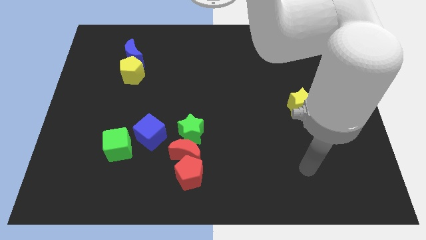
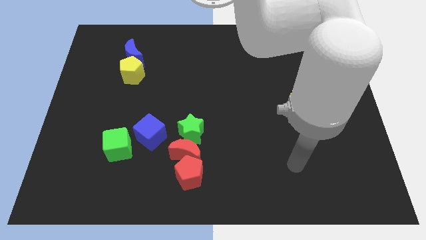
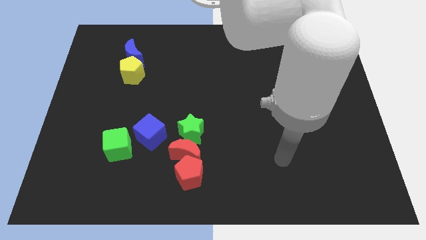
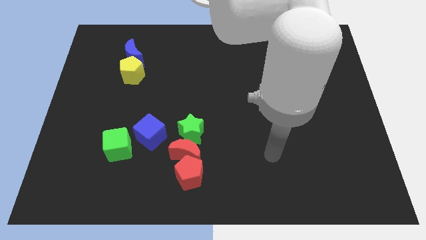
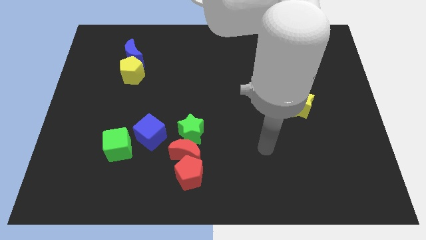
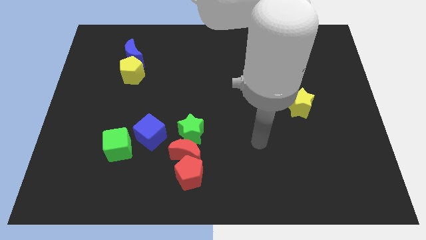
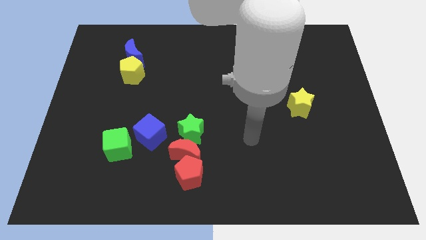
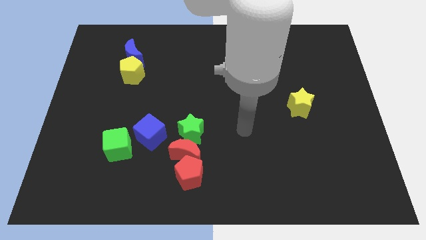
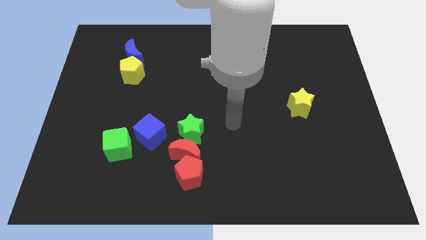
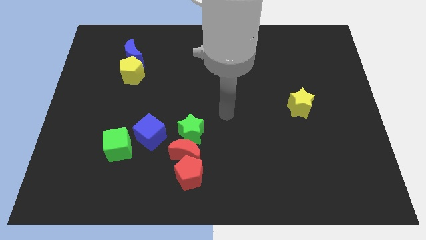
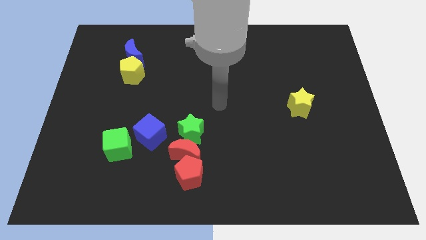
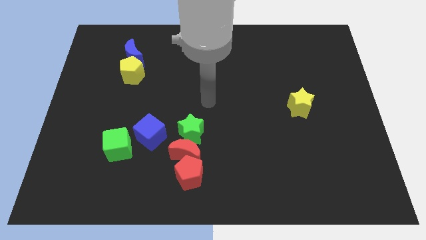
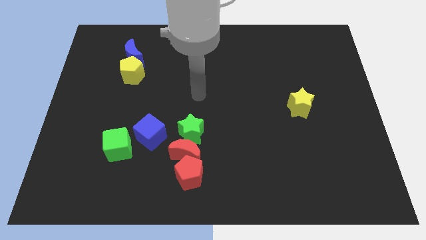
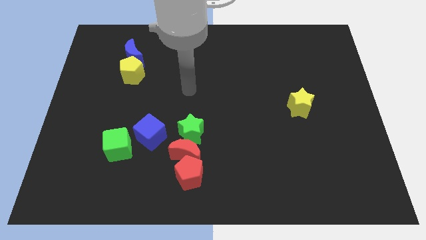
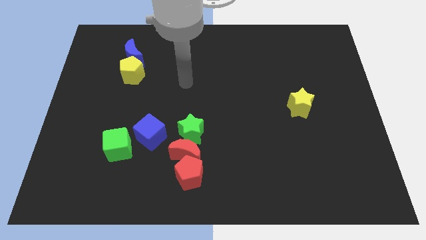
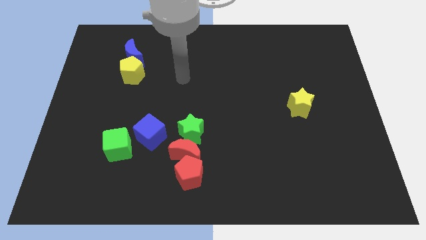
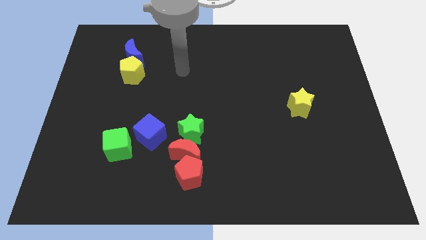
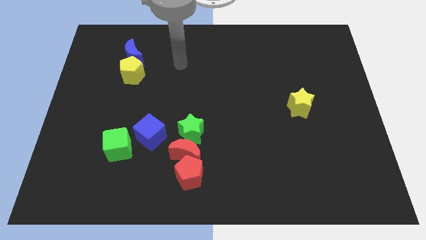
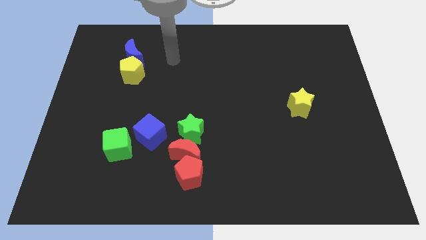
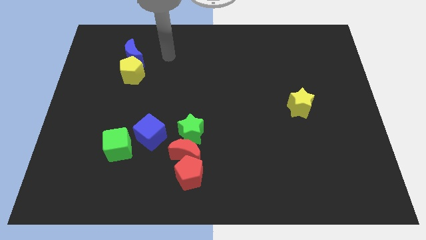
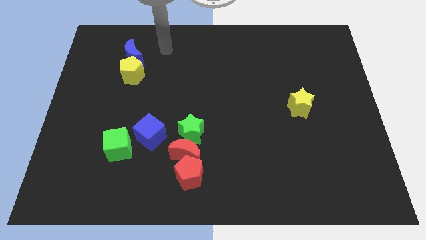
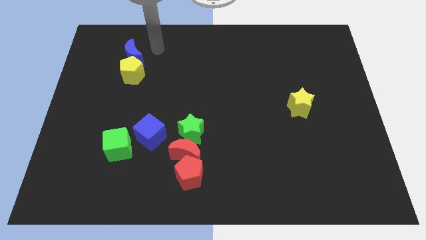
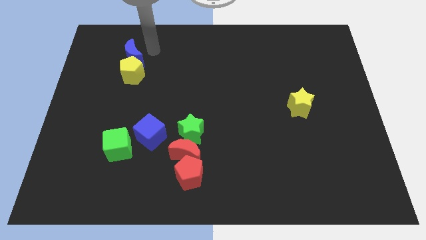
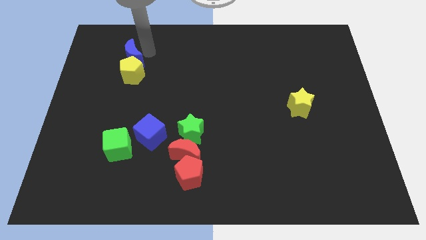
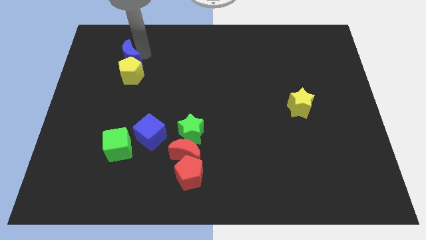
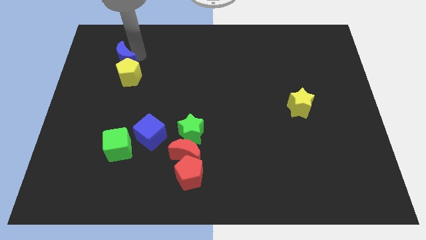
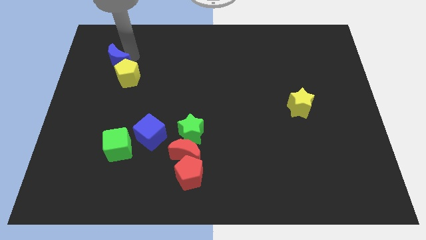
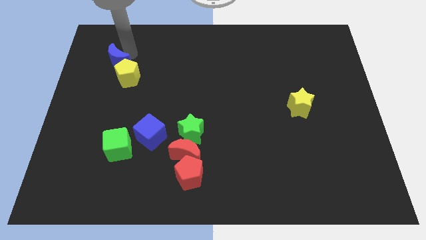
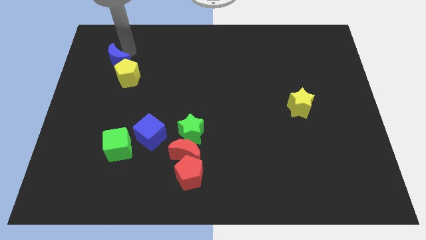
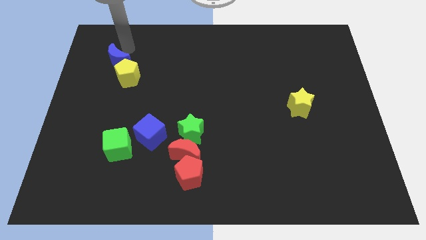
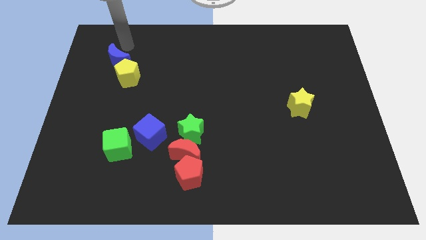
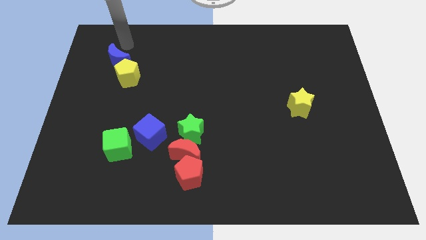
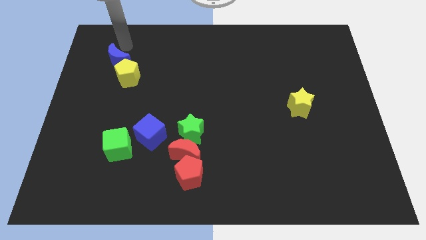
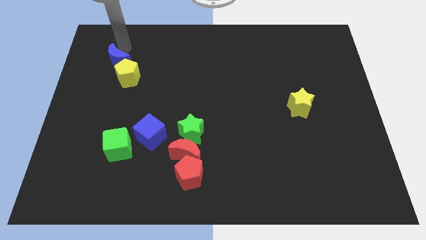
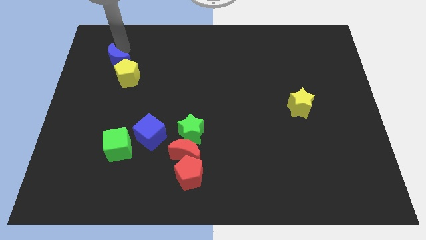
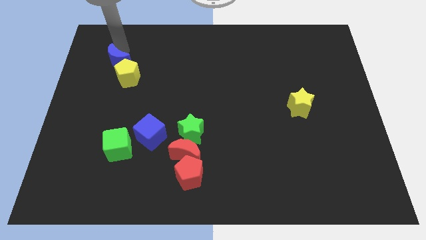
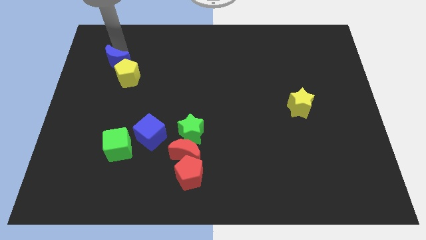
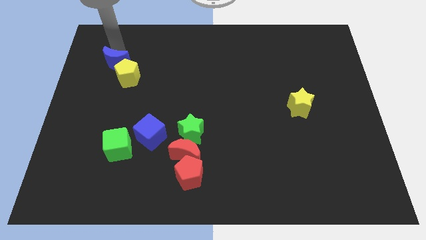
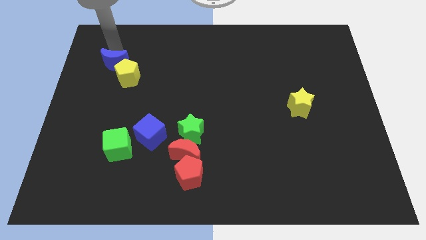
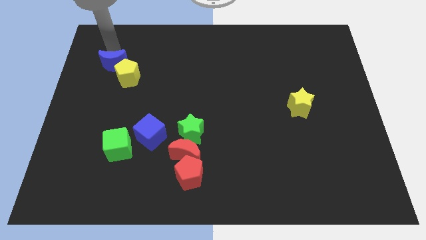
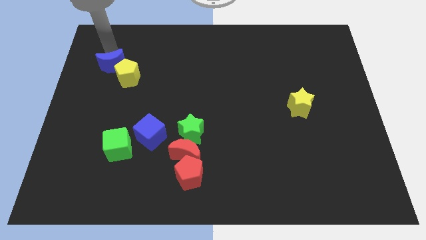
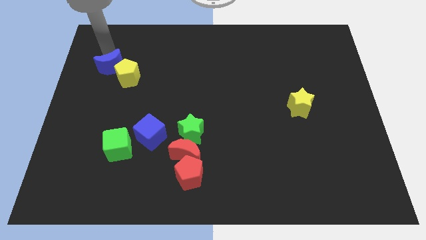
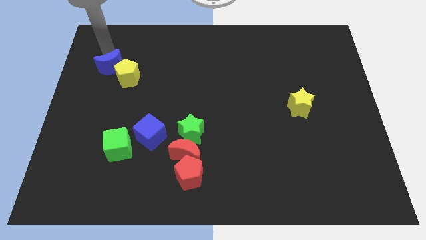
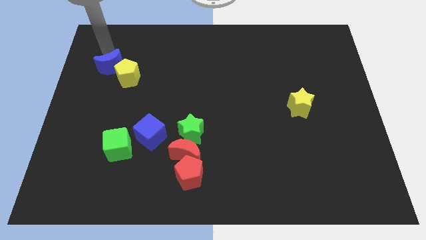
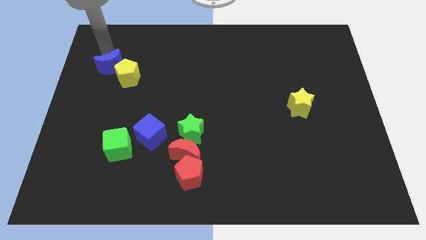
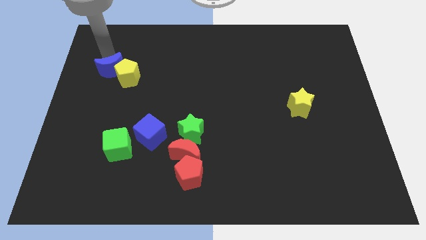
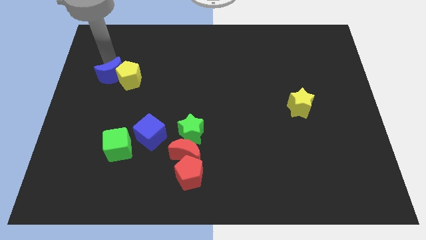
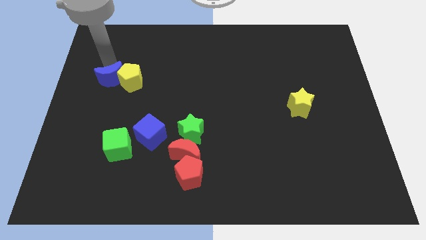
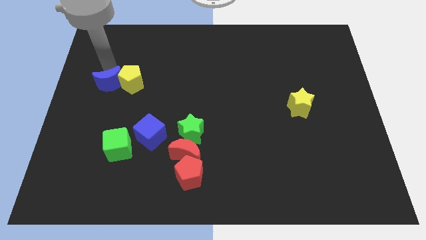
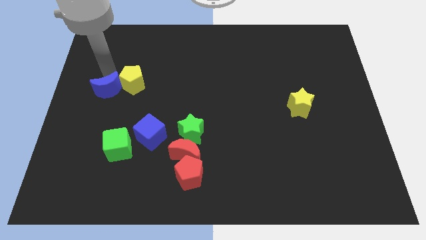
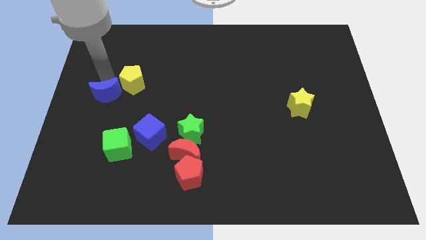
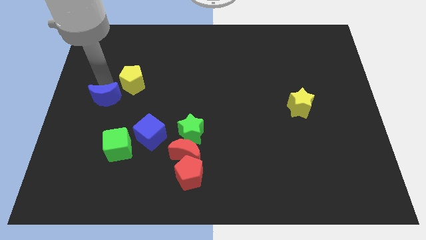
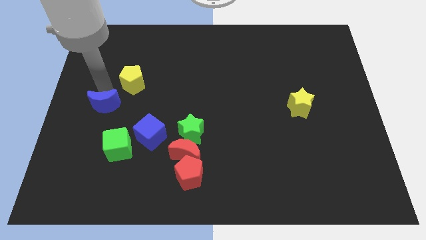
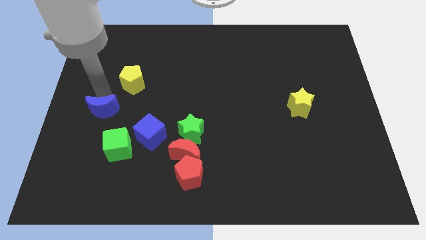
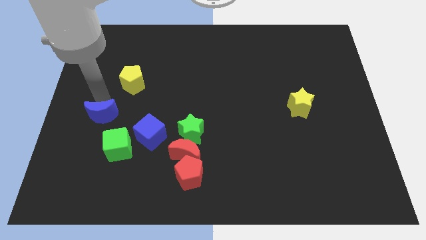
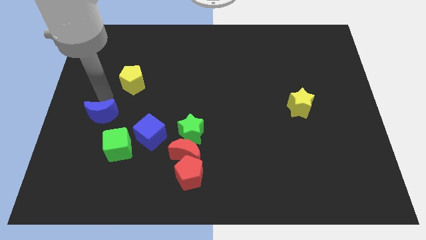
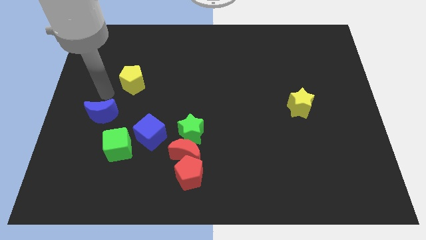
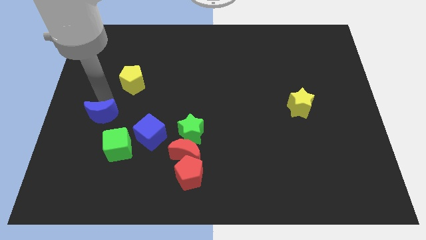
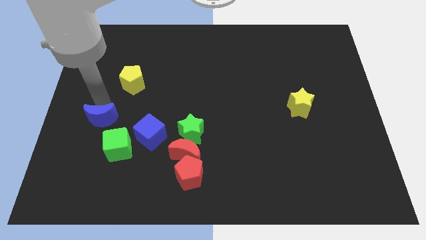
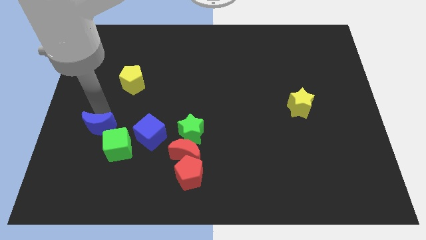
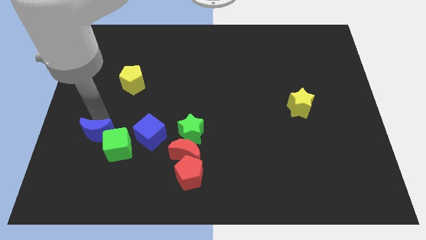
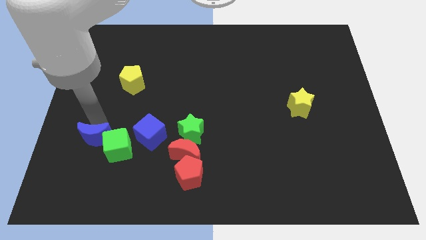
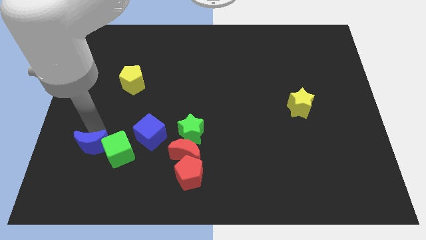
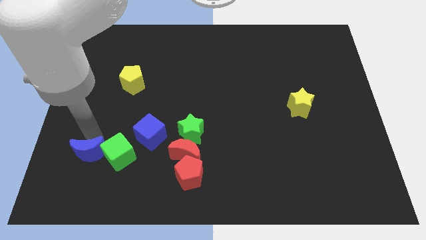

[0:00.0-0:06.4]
slide the blue moon to the bottom left side of the green cube

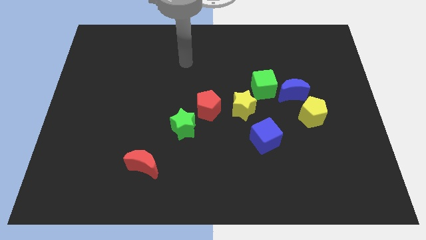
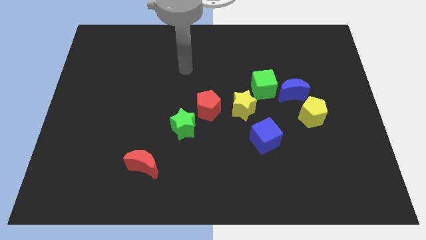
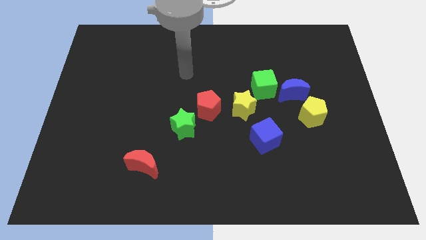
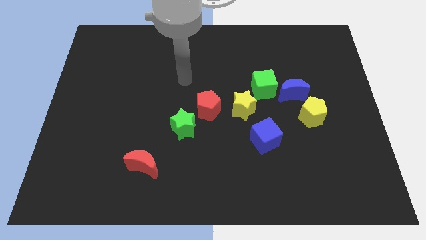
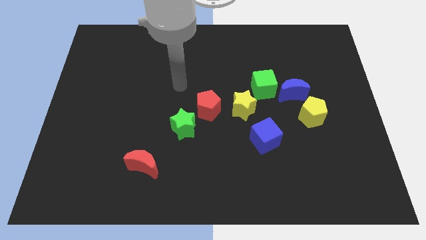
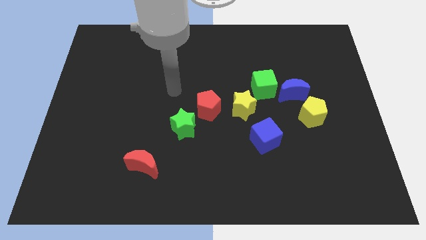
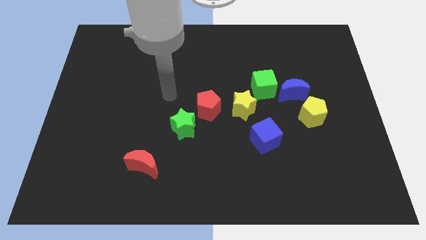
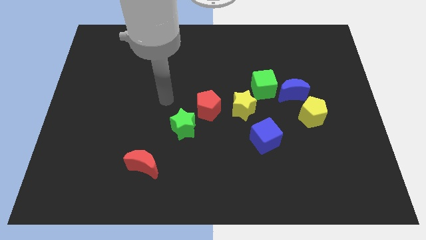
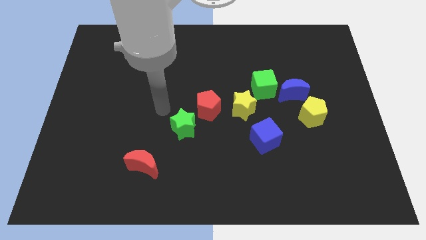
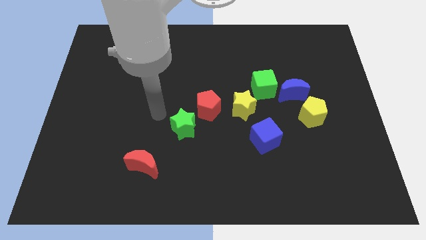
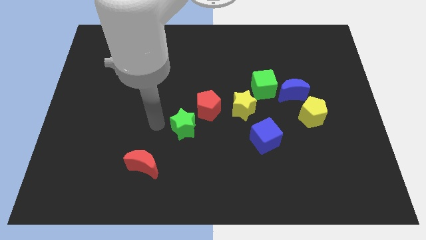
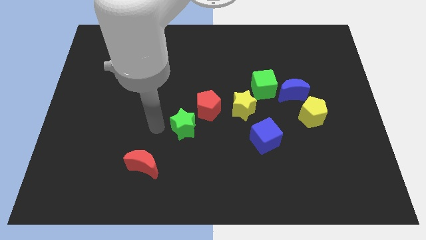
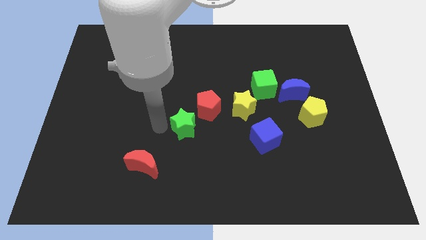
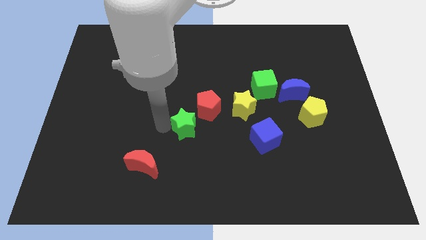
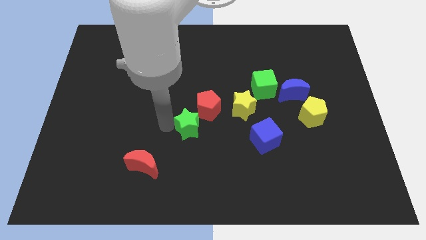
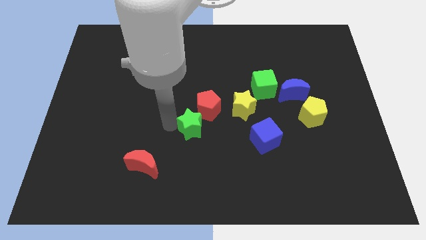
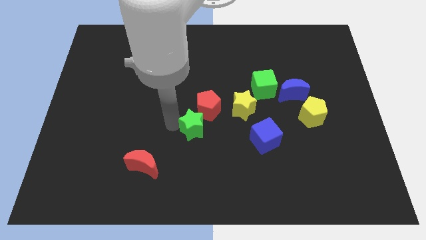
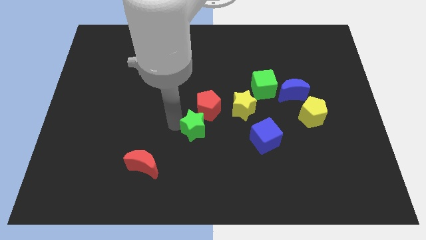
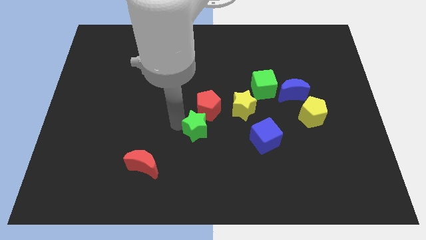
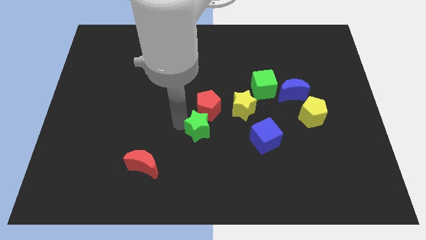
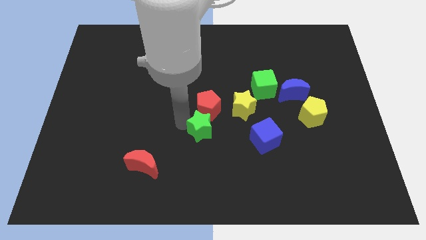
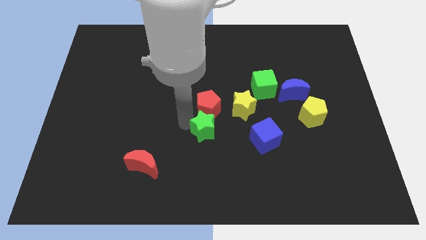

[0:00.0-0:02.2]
slide the green star to the bottom right side of the red pentagon
